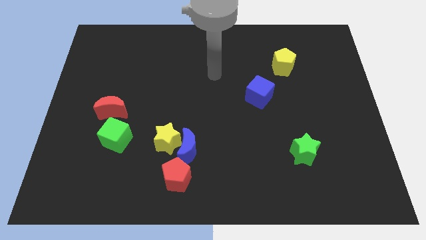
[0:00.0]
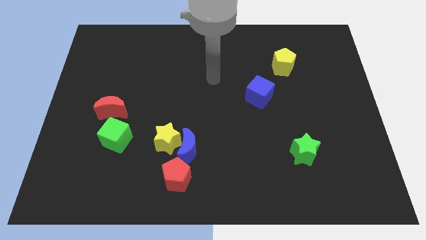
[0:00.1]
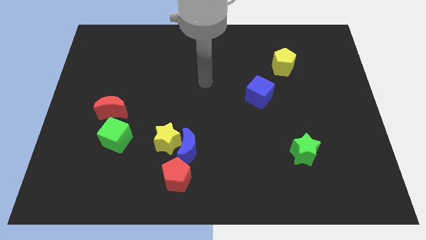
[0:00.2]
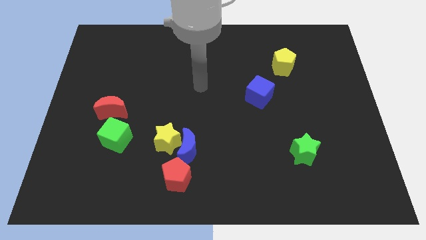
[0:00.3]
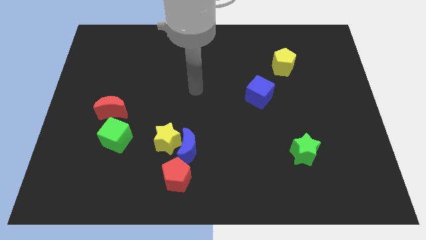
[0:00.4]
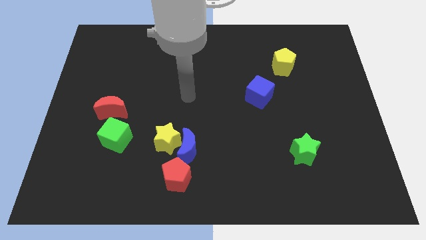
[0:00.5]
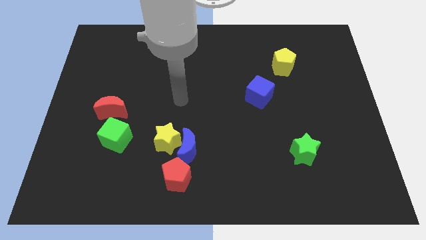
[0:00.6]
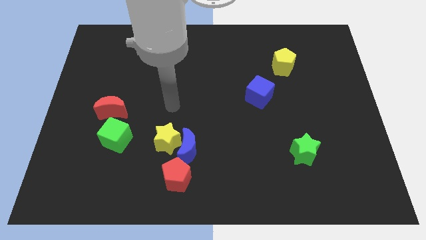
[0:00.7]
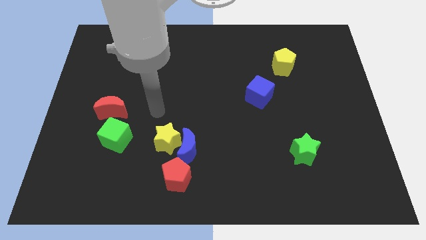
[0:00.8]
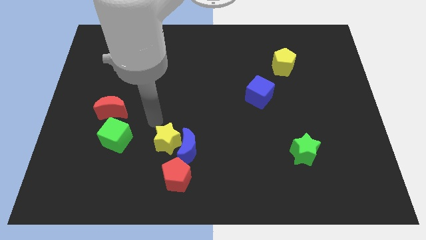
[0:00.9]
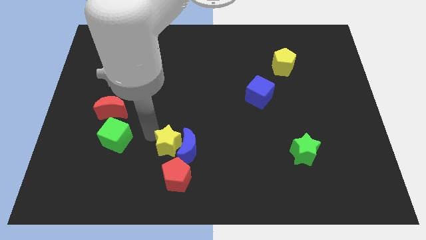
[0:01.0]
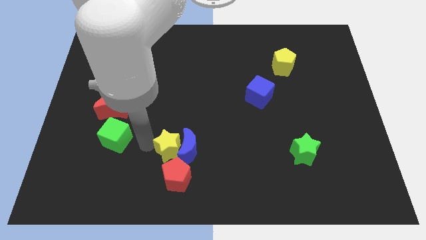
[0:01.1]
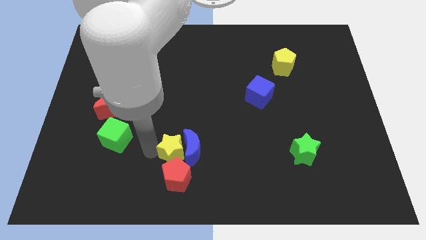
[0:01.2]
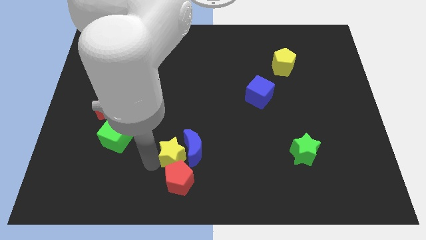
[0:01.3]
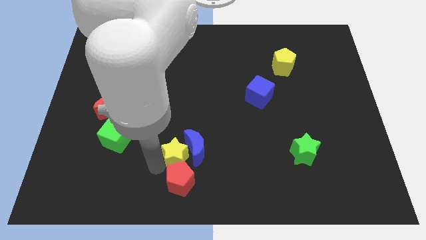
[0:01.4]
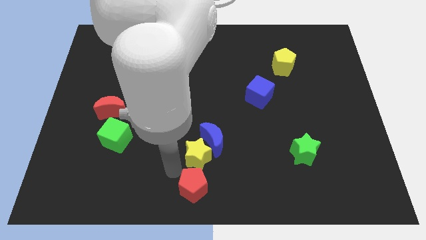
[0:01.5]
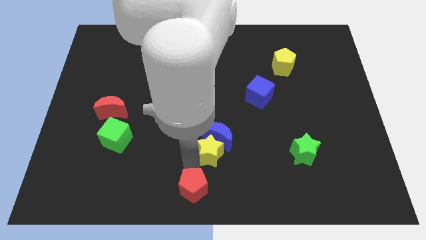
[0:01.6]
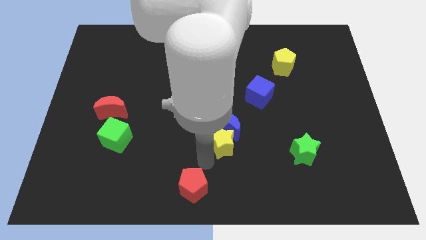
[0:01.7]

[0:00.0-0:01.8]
separate the blue moon from the yellow star and red pentagon

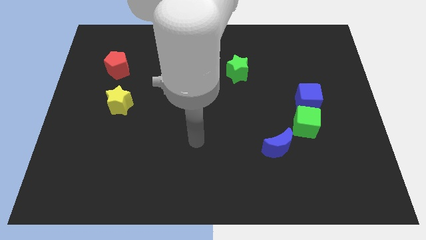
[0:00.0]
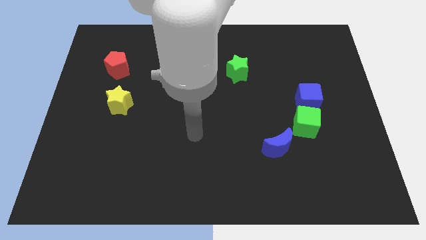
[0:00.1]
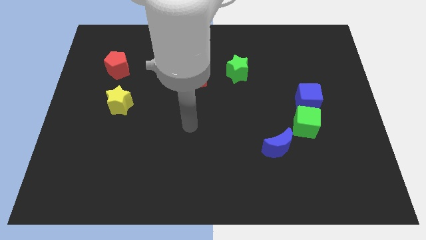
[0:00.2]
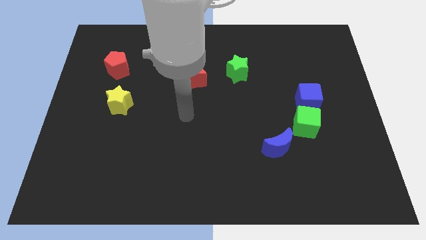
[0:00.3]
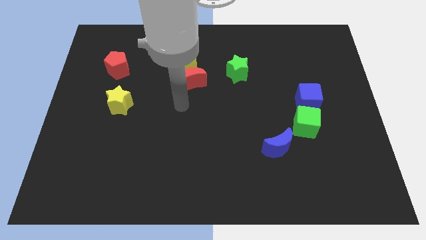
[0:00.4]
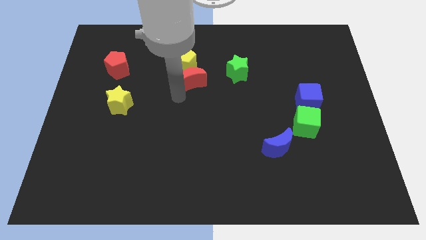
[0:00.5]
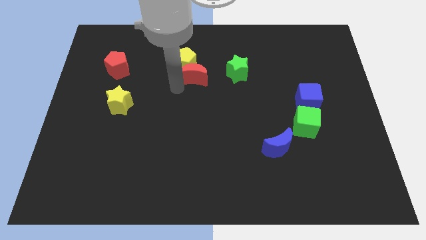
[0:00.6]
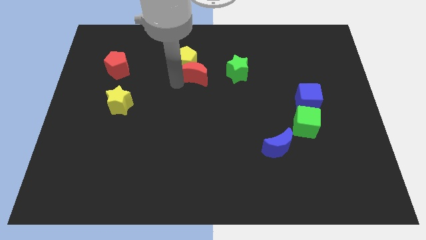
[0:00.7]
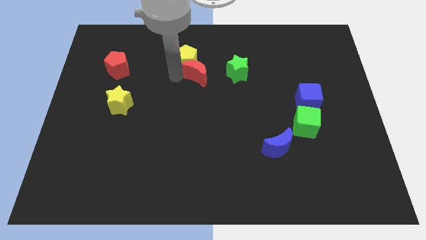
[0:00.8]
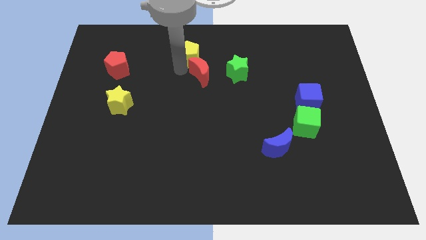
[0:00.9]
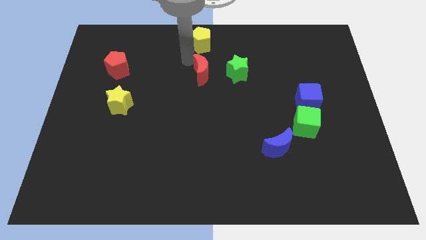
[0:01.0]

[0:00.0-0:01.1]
separate the red moon from the yellow pentagon

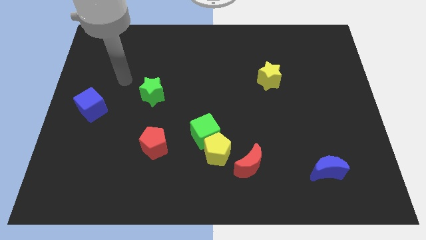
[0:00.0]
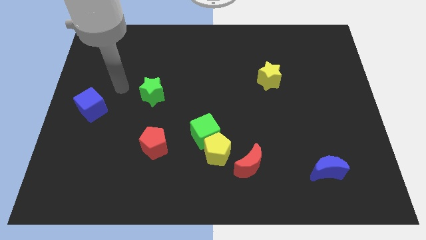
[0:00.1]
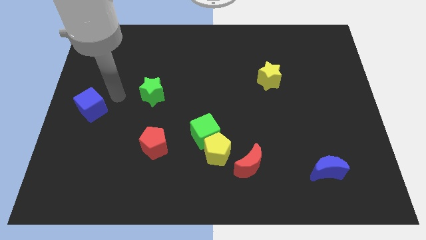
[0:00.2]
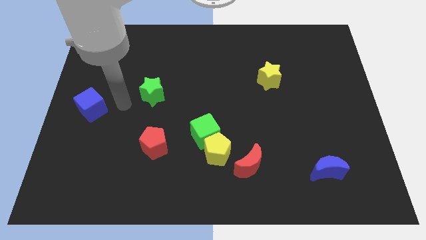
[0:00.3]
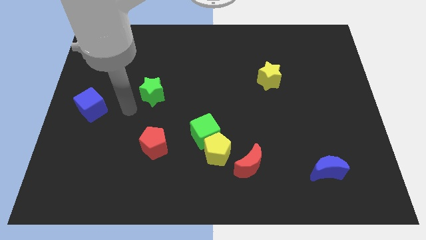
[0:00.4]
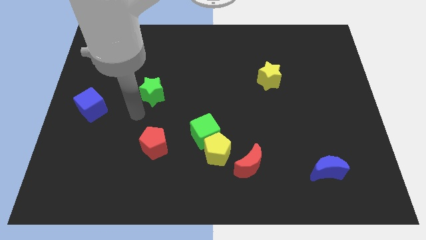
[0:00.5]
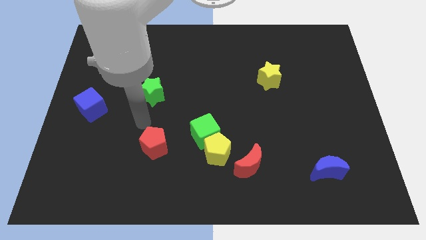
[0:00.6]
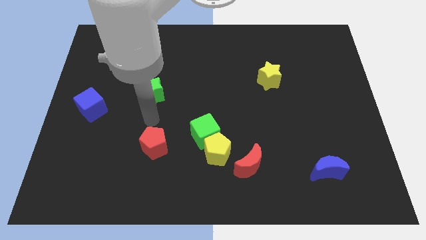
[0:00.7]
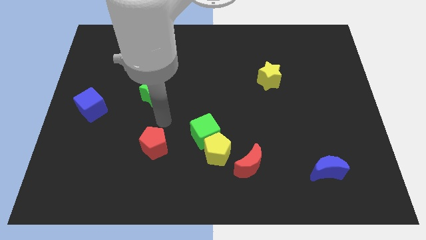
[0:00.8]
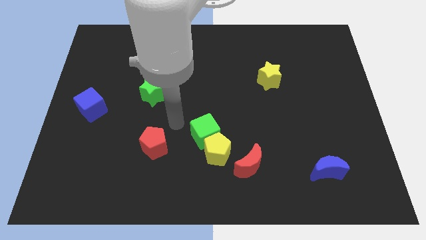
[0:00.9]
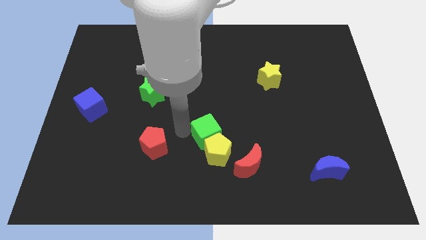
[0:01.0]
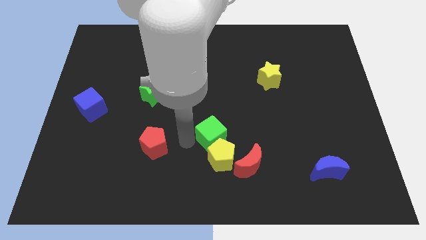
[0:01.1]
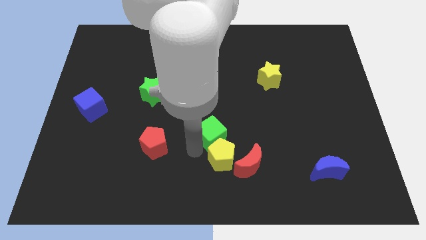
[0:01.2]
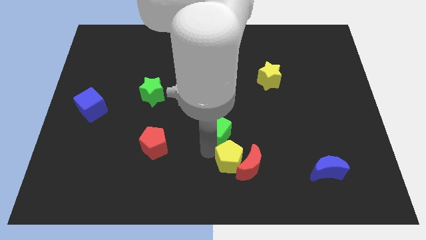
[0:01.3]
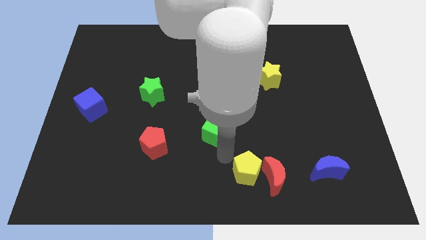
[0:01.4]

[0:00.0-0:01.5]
move the green cube away from the yellow pentagon

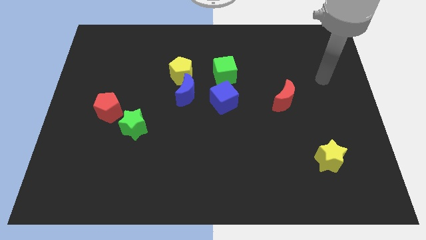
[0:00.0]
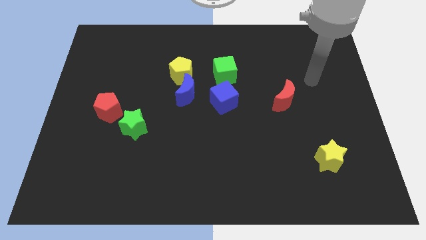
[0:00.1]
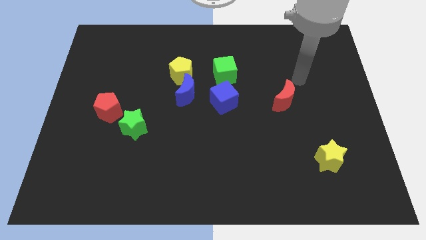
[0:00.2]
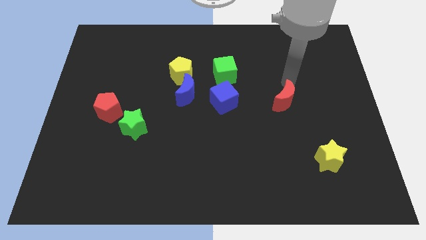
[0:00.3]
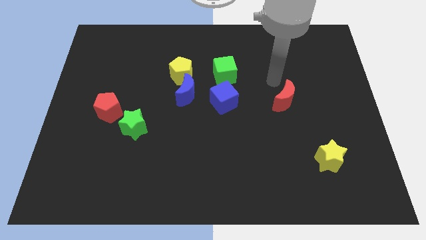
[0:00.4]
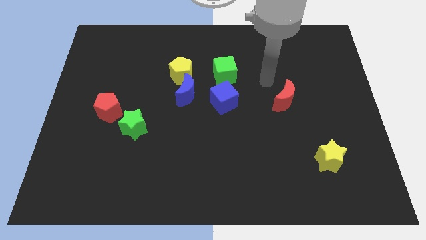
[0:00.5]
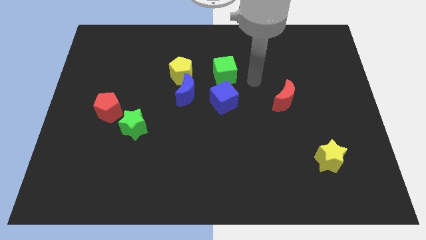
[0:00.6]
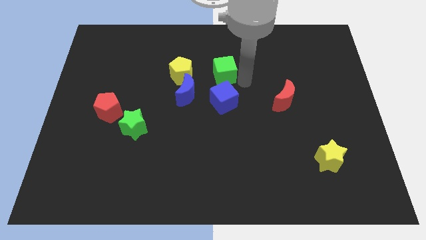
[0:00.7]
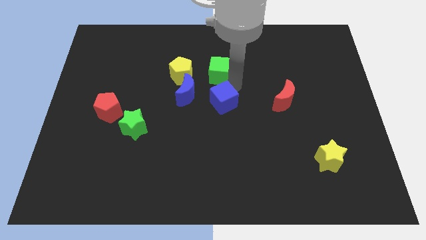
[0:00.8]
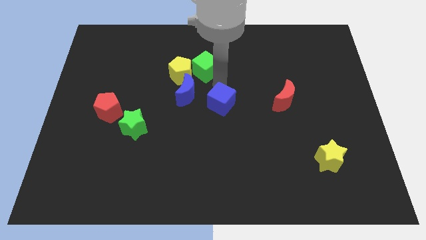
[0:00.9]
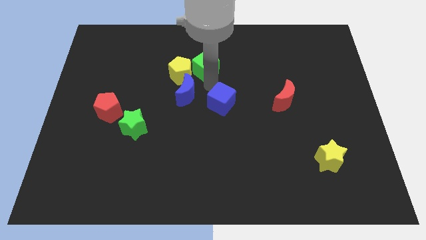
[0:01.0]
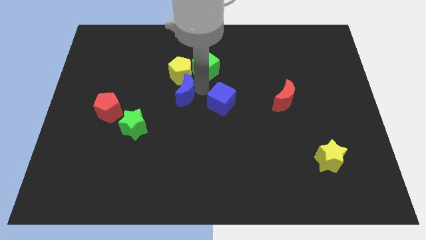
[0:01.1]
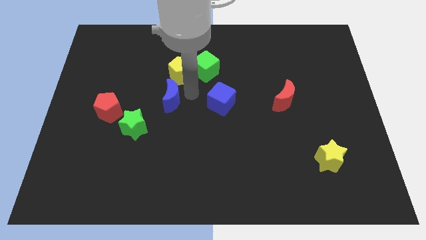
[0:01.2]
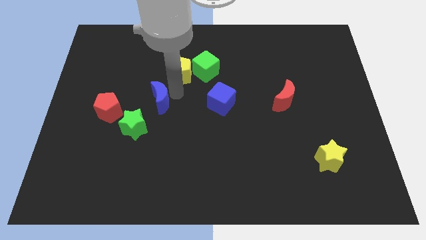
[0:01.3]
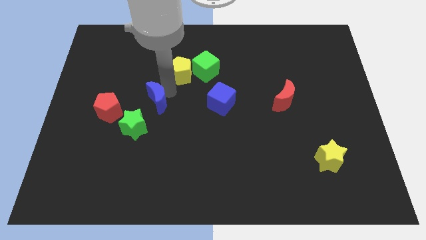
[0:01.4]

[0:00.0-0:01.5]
pull the yellow pentagon apart from the blue moon

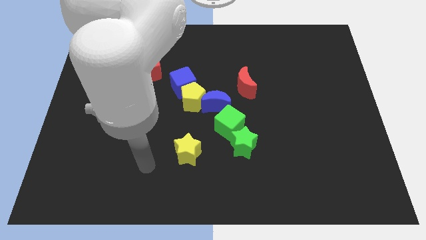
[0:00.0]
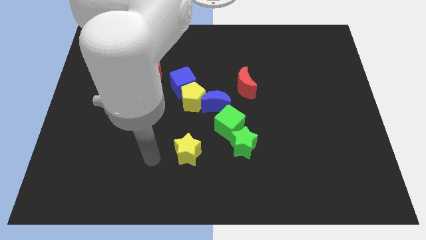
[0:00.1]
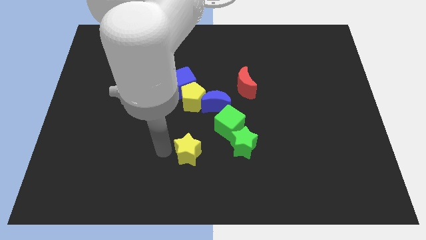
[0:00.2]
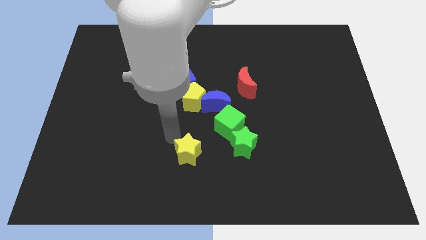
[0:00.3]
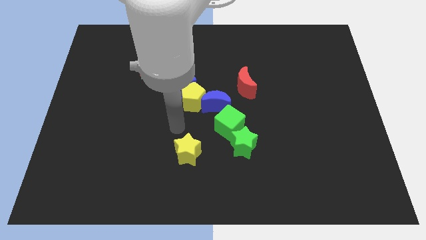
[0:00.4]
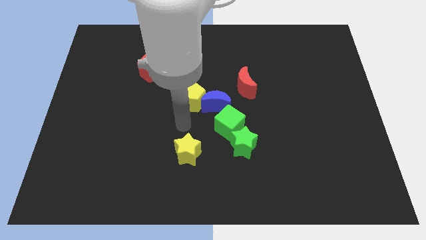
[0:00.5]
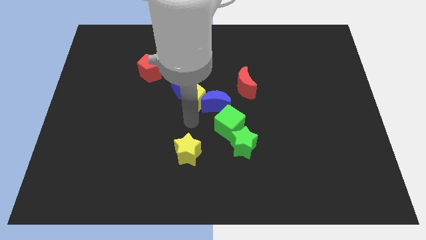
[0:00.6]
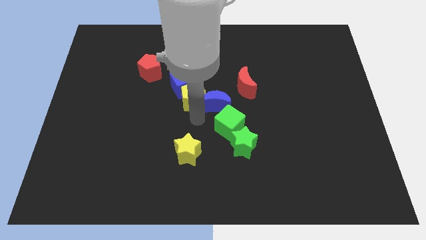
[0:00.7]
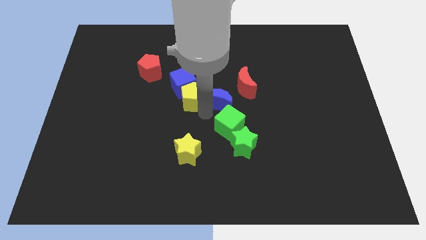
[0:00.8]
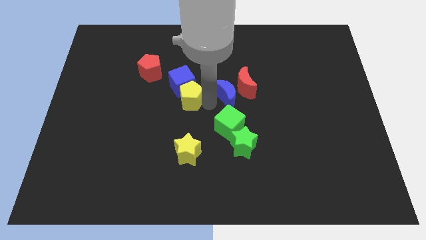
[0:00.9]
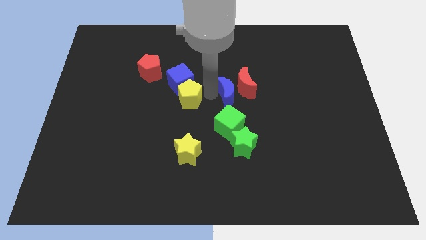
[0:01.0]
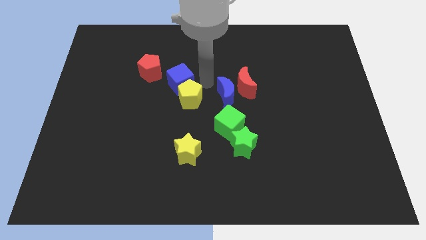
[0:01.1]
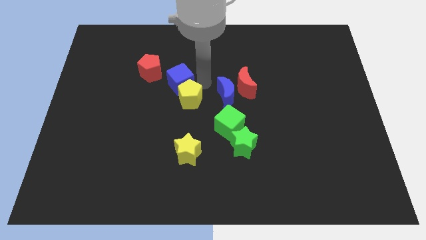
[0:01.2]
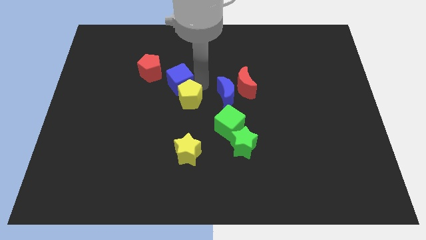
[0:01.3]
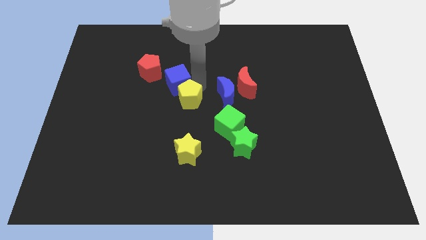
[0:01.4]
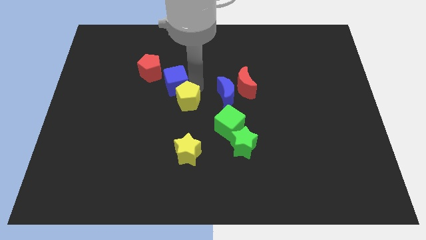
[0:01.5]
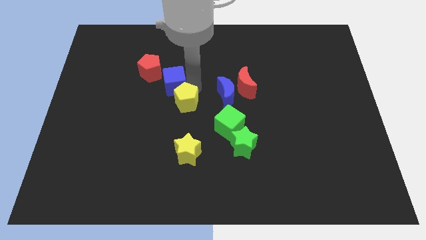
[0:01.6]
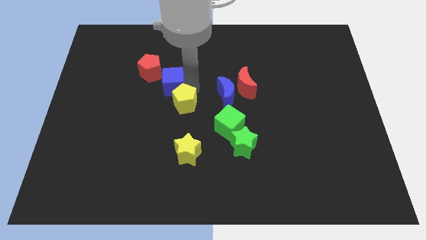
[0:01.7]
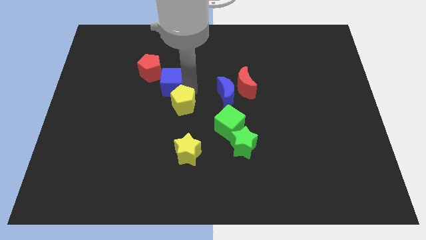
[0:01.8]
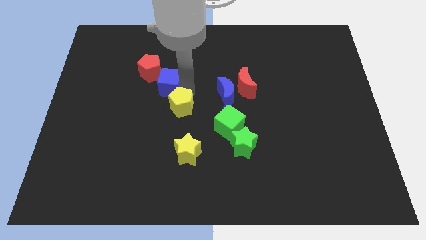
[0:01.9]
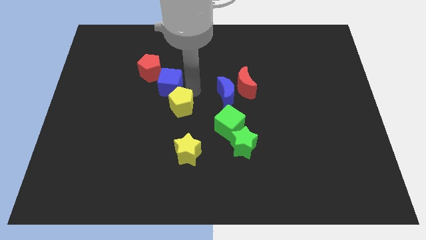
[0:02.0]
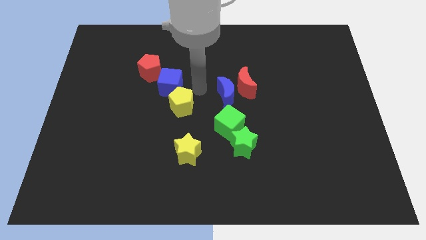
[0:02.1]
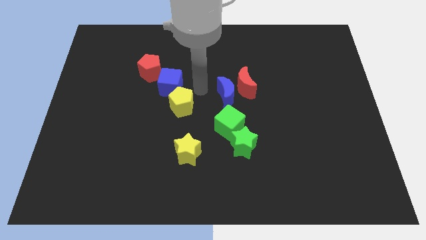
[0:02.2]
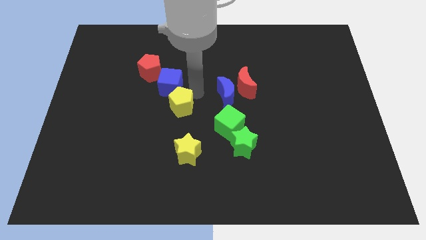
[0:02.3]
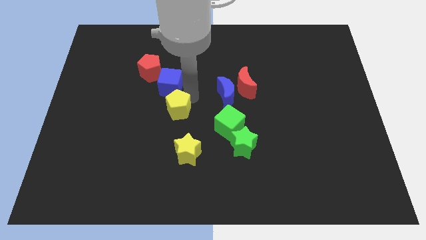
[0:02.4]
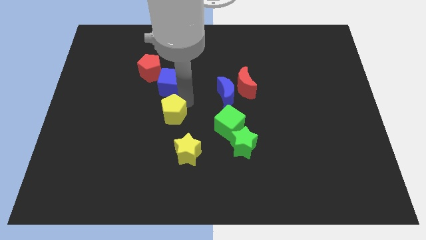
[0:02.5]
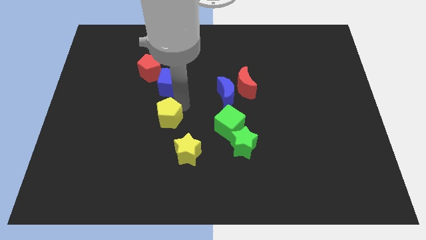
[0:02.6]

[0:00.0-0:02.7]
pull the yellow pentagon apart from the blue cube and blue moon

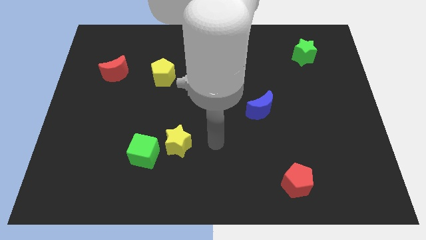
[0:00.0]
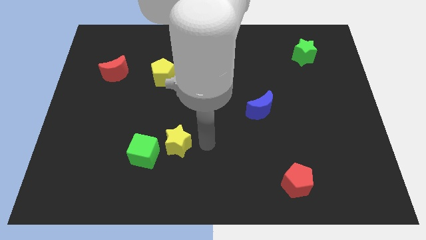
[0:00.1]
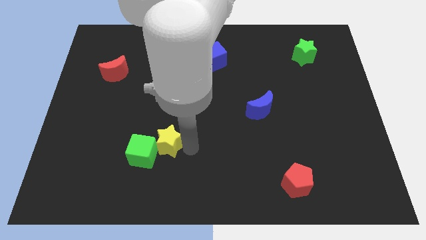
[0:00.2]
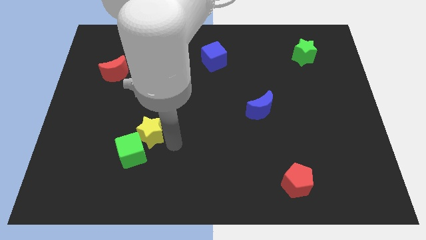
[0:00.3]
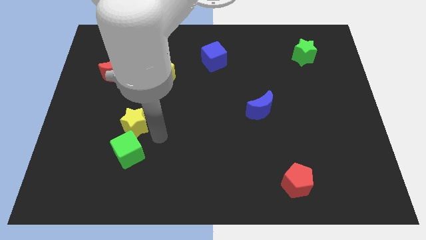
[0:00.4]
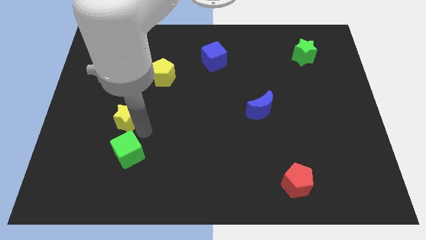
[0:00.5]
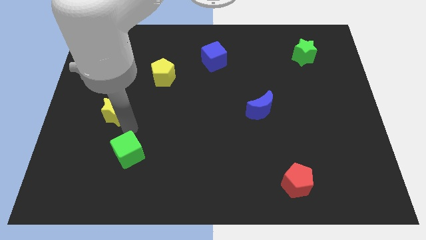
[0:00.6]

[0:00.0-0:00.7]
move the green cube away from the yellow star
